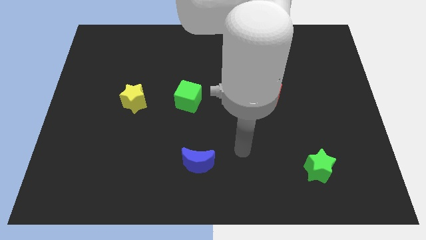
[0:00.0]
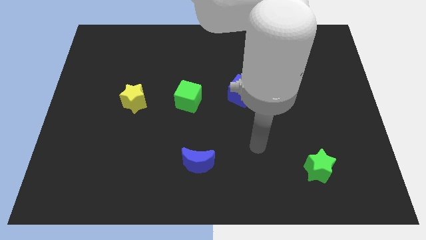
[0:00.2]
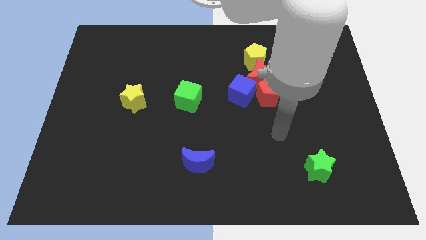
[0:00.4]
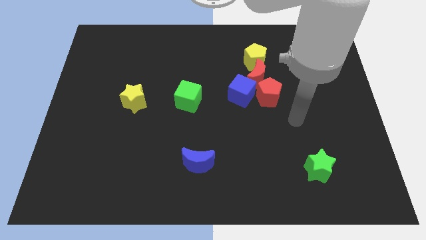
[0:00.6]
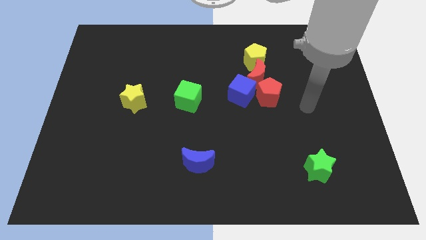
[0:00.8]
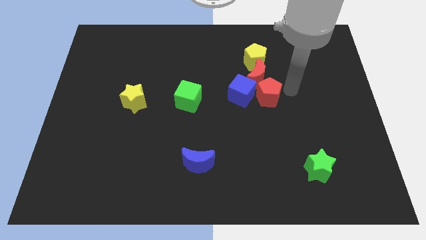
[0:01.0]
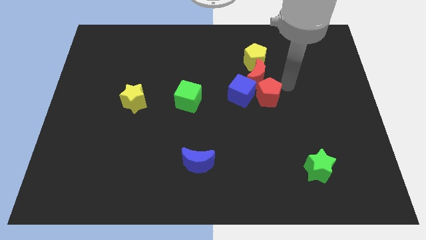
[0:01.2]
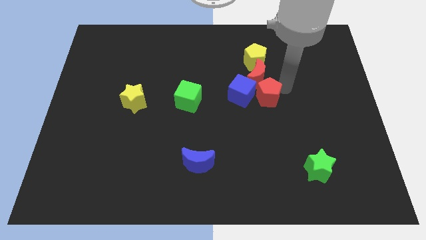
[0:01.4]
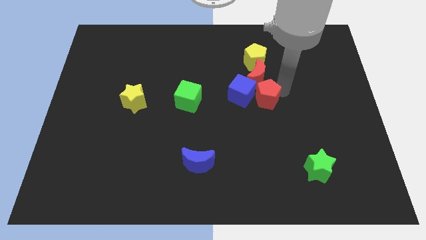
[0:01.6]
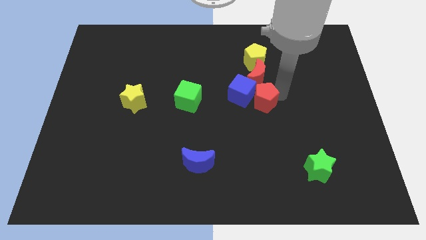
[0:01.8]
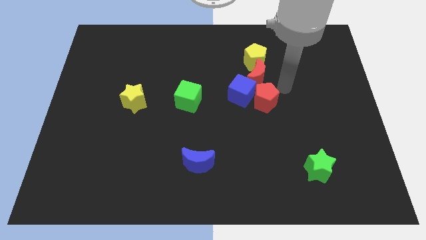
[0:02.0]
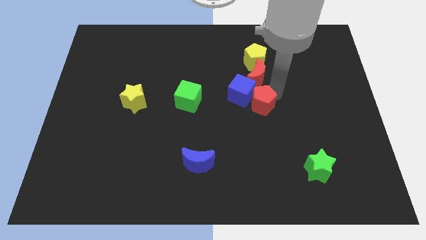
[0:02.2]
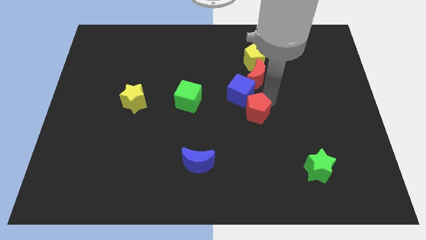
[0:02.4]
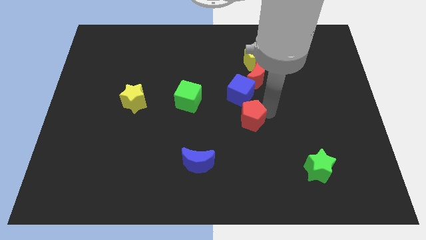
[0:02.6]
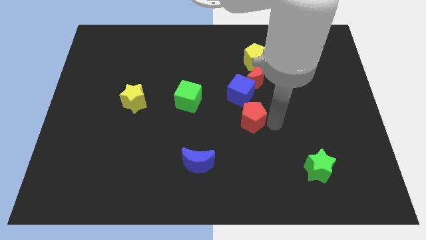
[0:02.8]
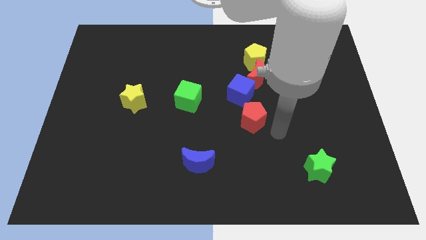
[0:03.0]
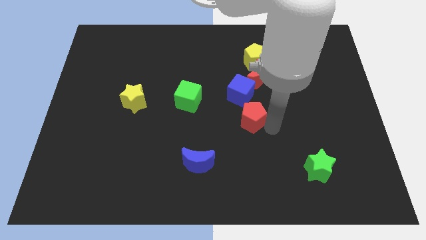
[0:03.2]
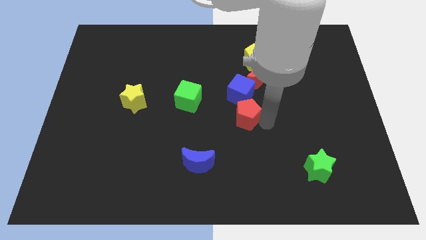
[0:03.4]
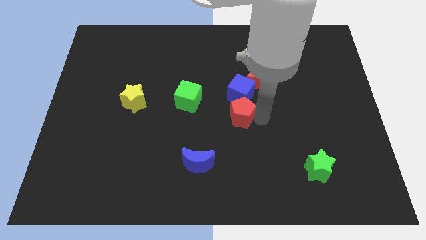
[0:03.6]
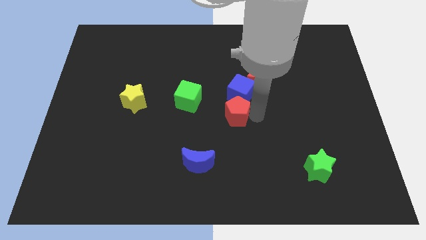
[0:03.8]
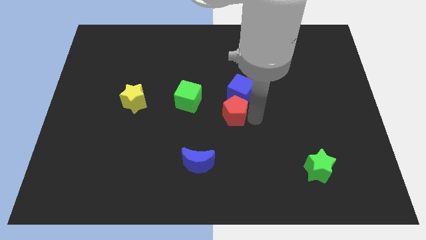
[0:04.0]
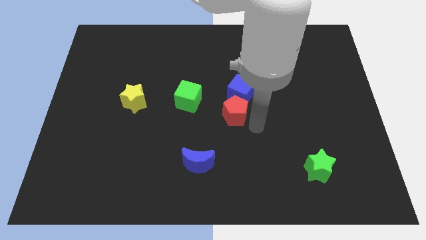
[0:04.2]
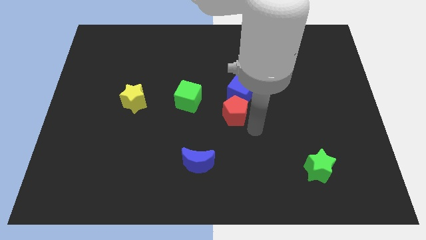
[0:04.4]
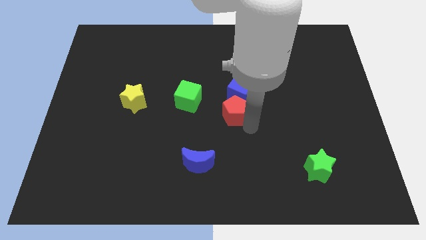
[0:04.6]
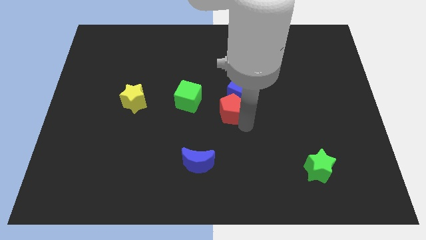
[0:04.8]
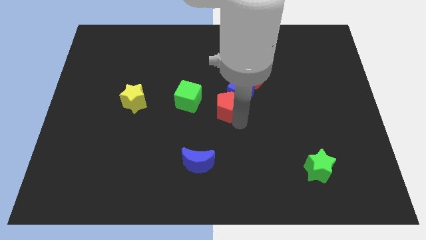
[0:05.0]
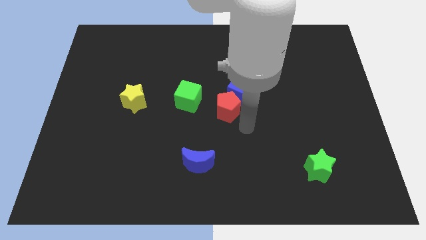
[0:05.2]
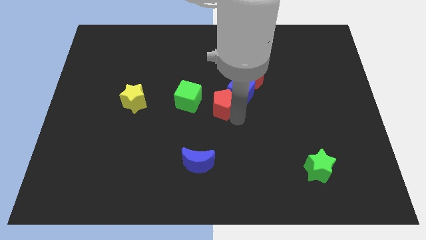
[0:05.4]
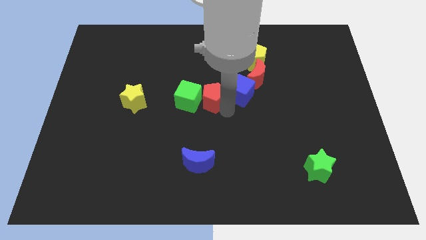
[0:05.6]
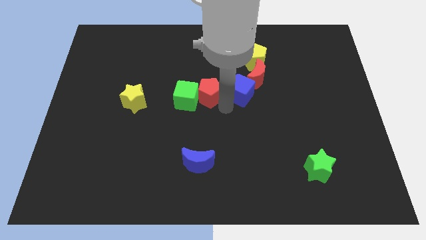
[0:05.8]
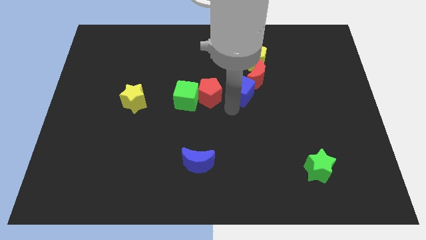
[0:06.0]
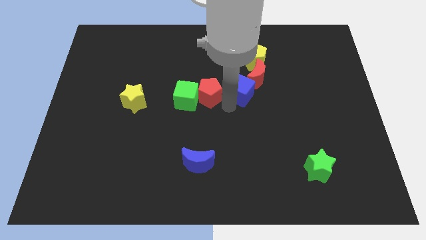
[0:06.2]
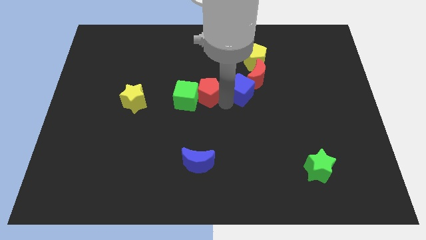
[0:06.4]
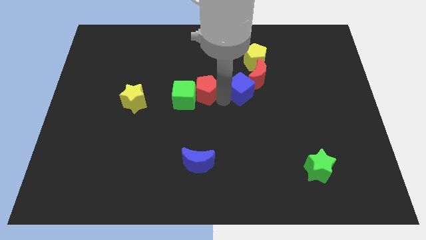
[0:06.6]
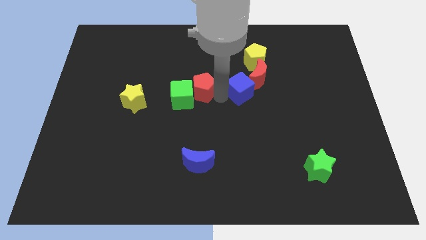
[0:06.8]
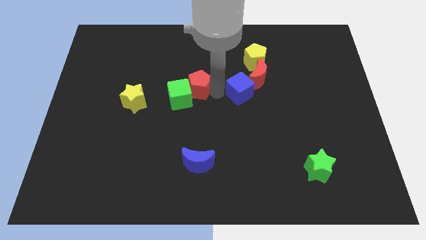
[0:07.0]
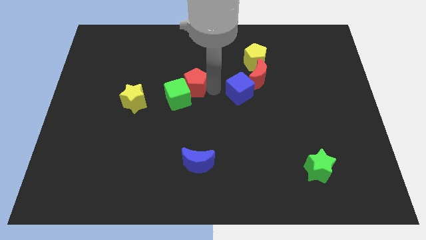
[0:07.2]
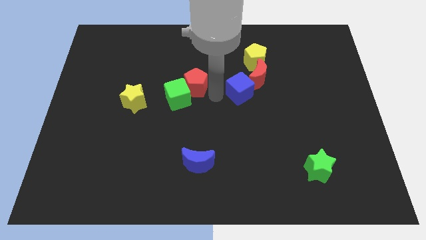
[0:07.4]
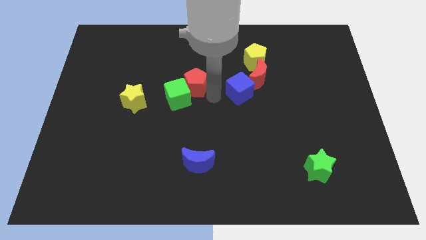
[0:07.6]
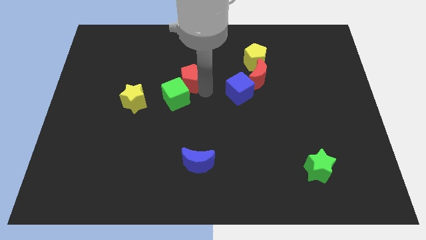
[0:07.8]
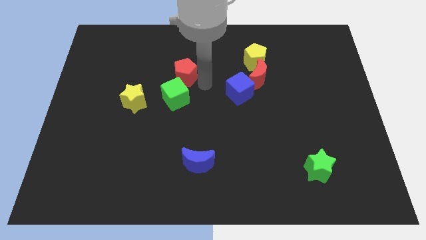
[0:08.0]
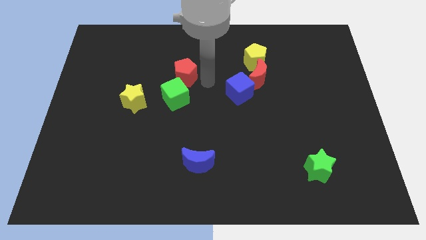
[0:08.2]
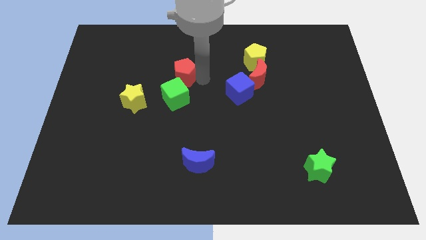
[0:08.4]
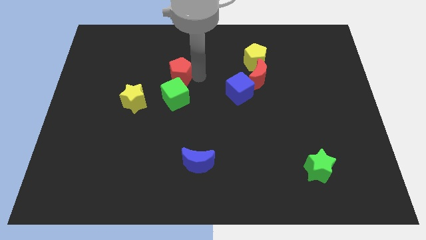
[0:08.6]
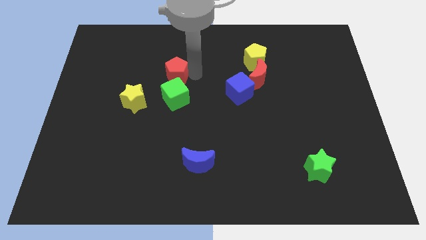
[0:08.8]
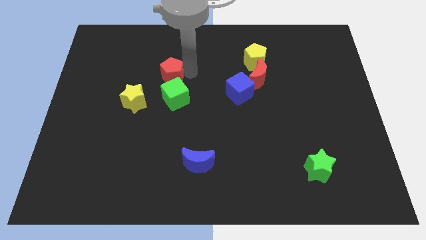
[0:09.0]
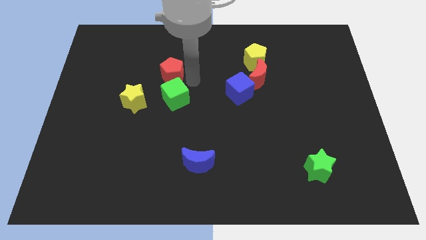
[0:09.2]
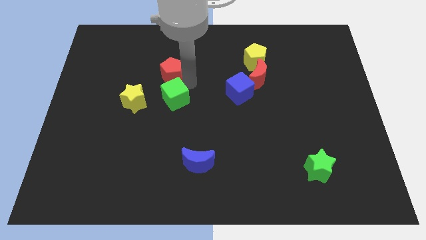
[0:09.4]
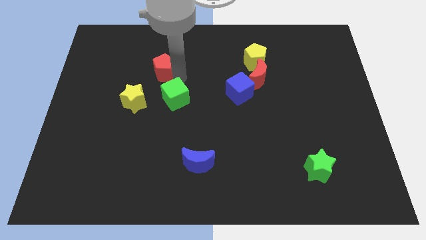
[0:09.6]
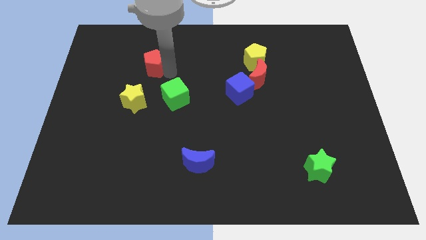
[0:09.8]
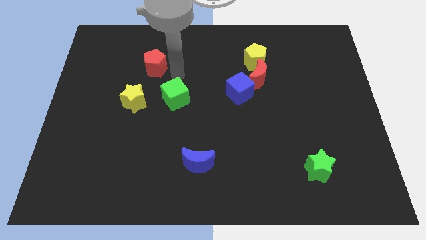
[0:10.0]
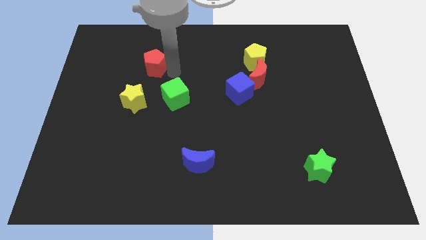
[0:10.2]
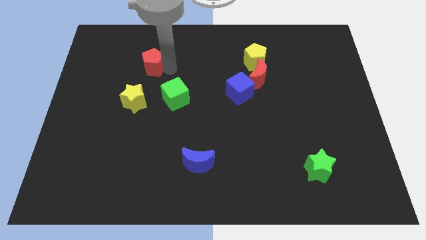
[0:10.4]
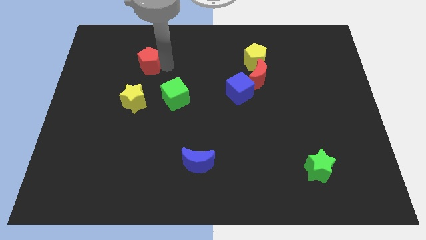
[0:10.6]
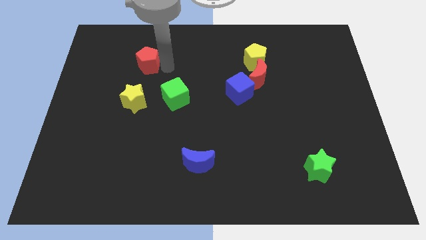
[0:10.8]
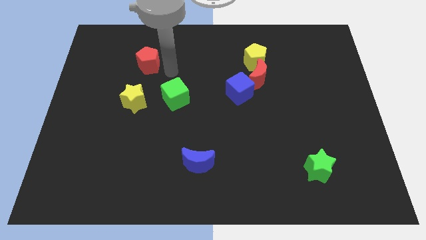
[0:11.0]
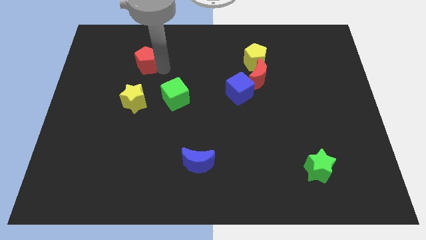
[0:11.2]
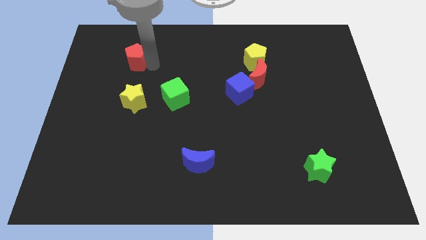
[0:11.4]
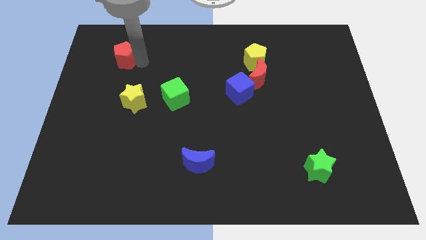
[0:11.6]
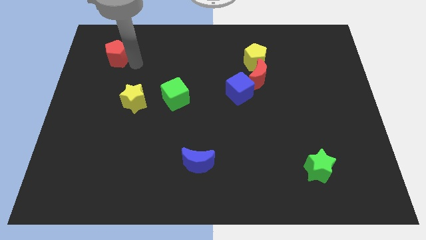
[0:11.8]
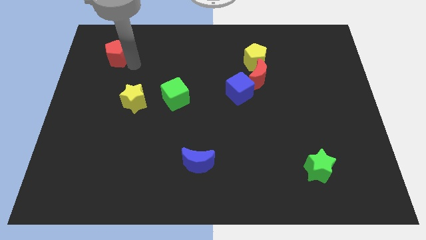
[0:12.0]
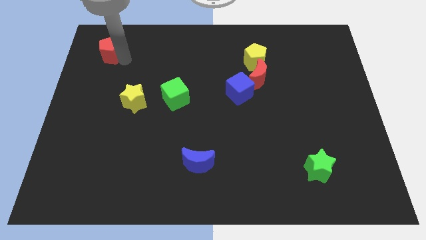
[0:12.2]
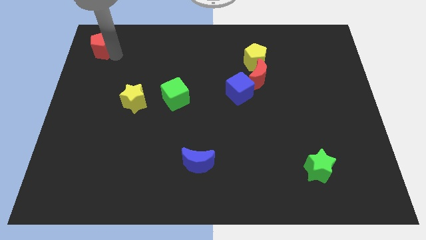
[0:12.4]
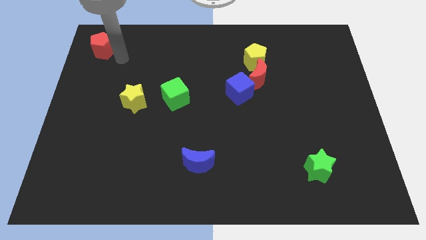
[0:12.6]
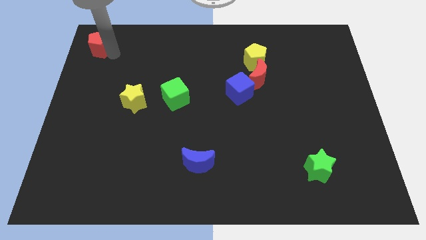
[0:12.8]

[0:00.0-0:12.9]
put the red pentagon to the top left
